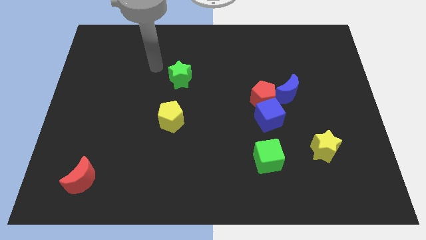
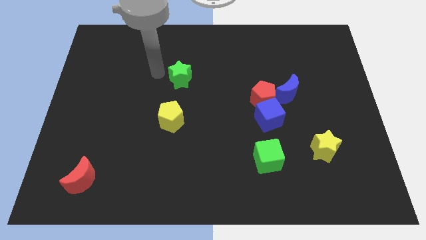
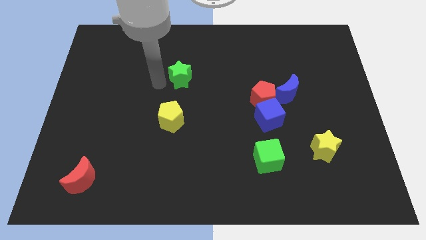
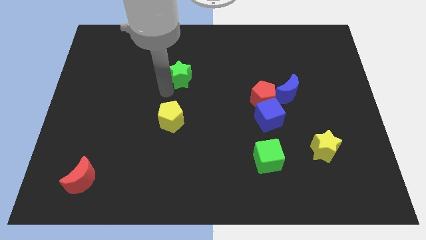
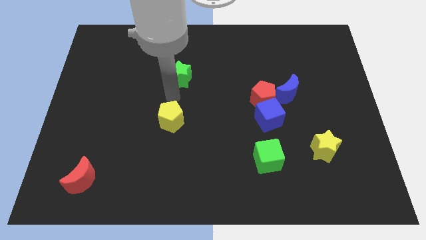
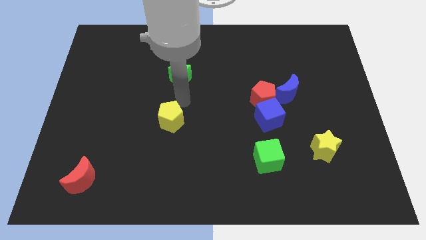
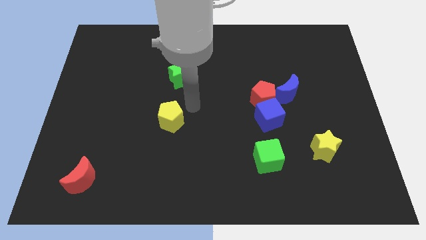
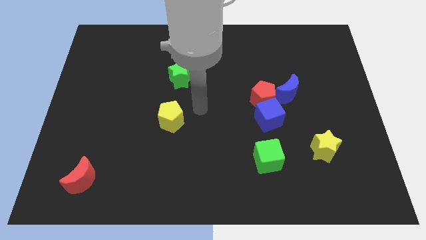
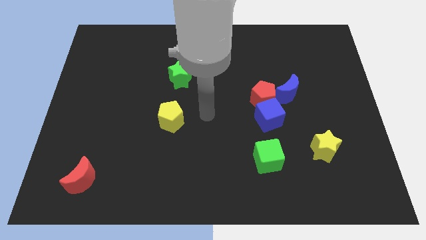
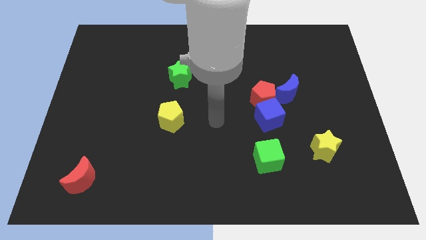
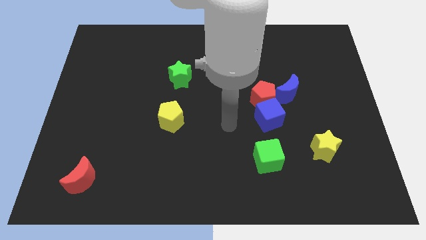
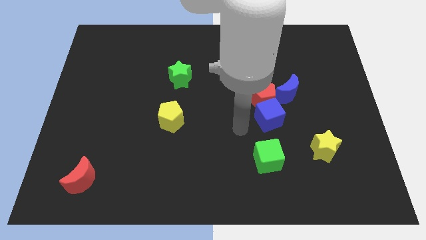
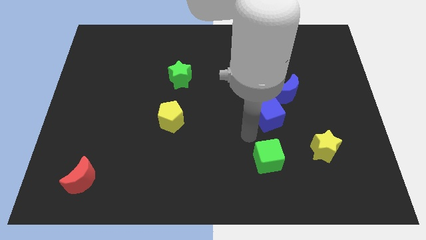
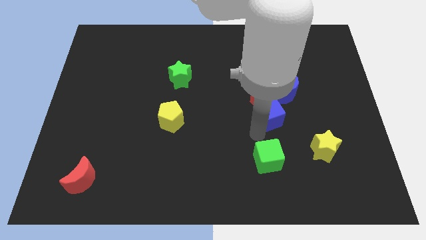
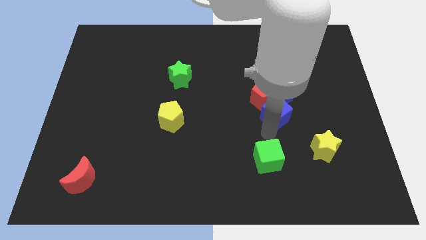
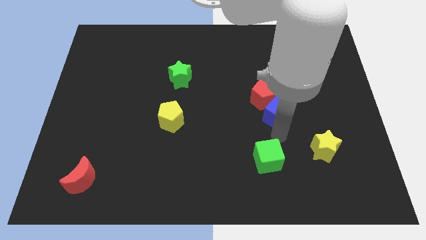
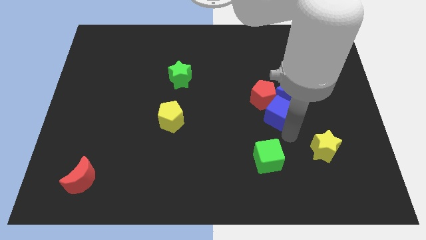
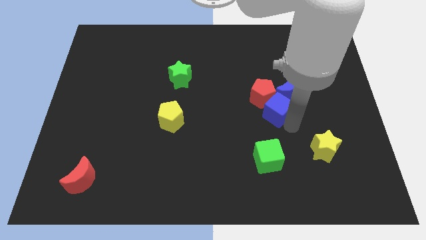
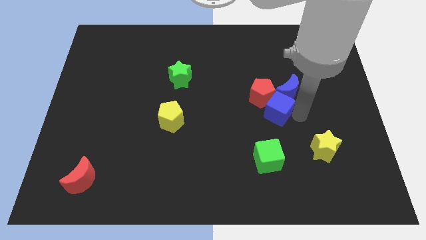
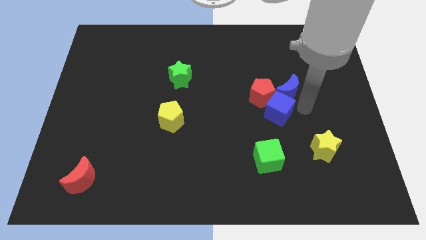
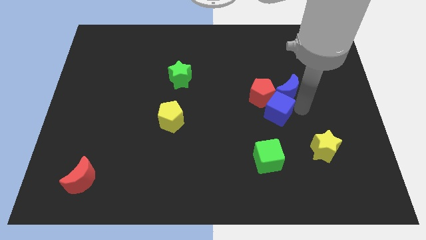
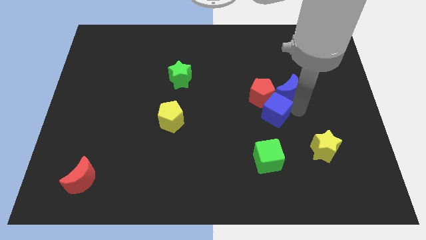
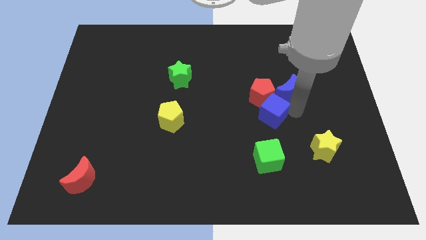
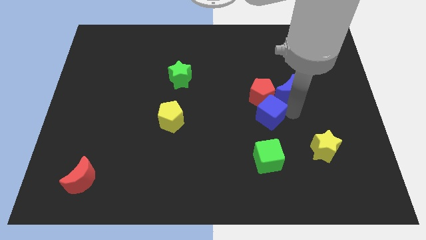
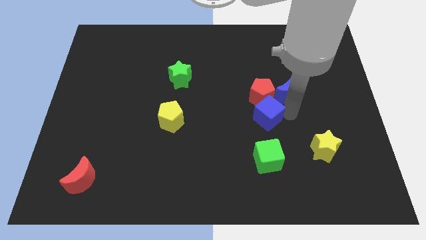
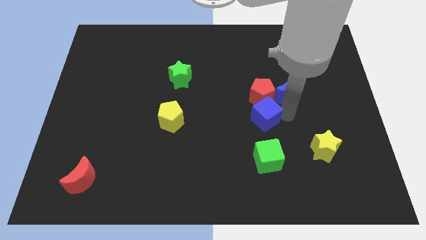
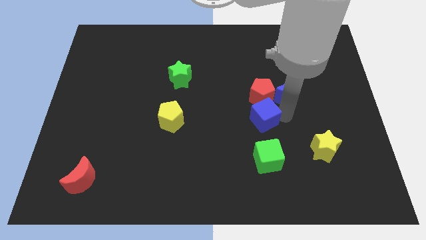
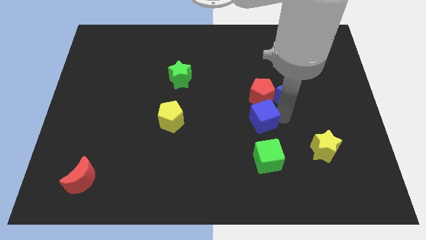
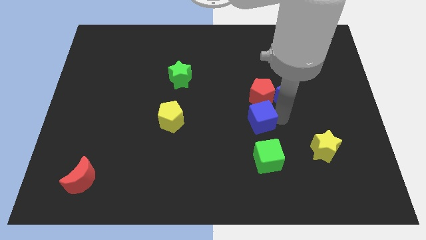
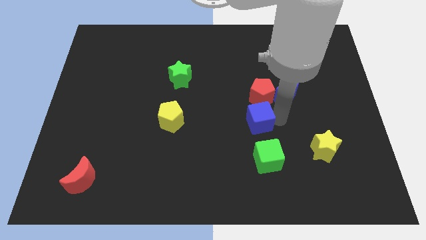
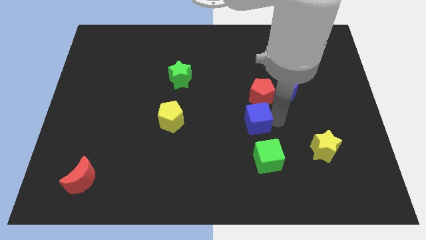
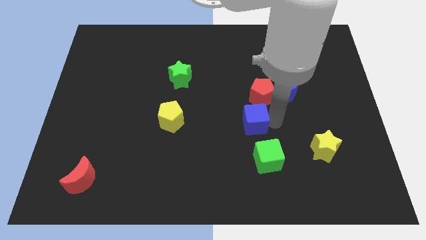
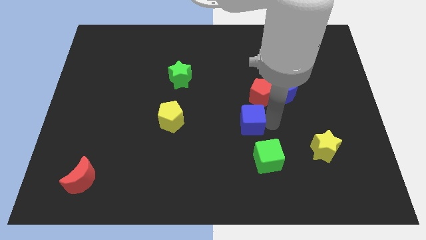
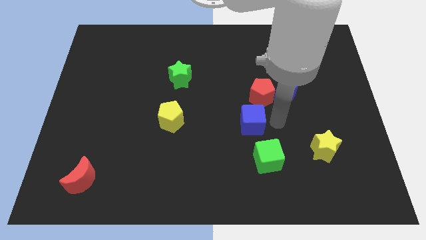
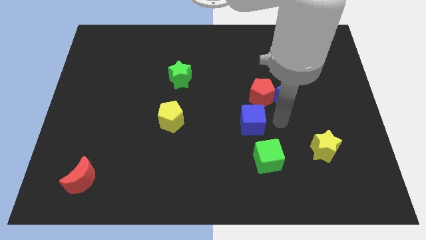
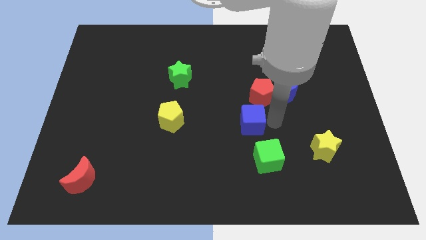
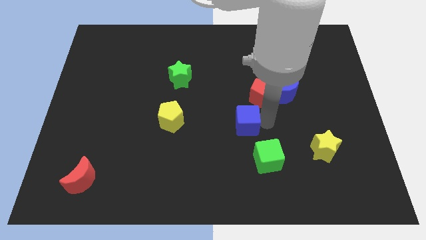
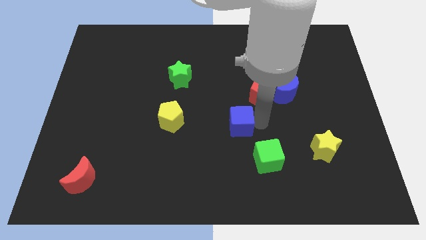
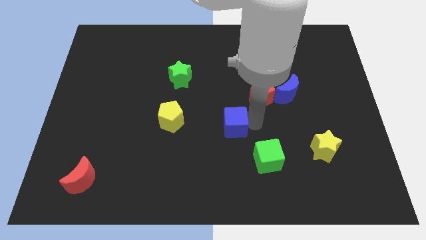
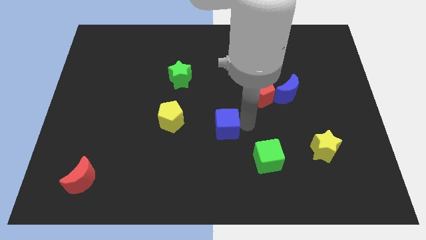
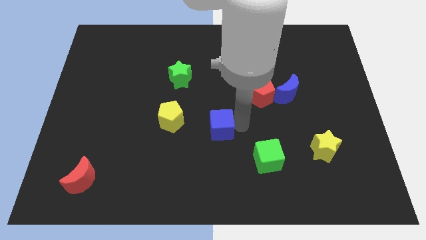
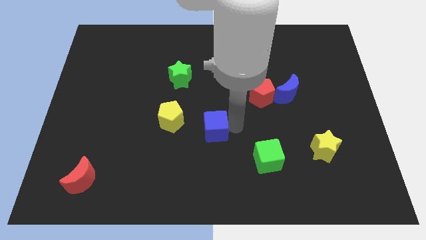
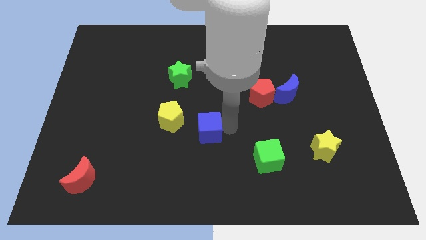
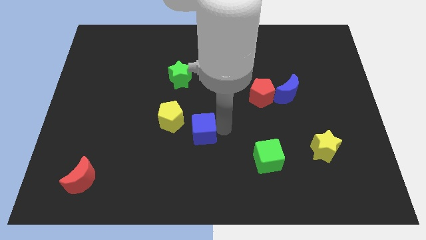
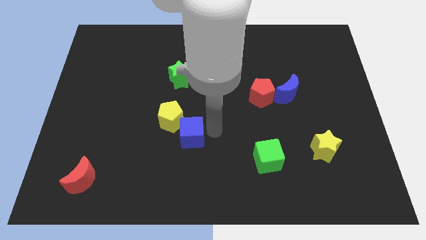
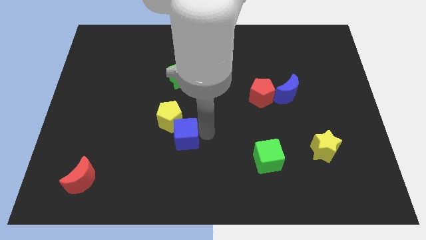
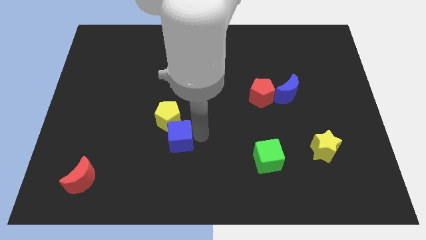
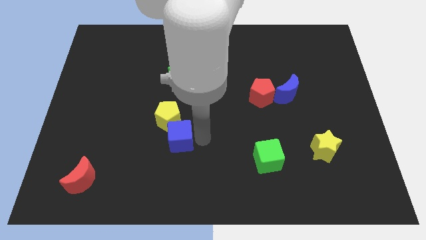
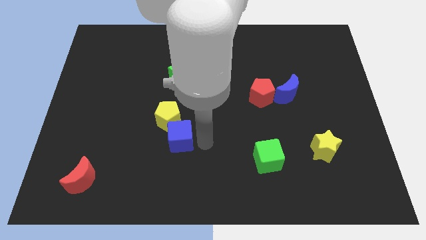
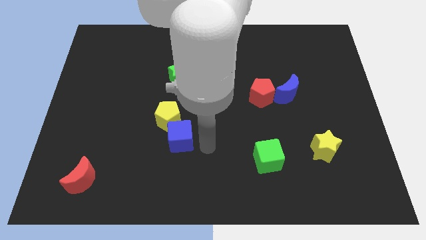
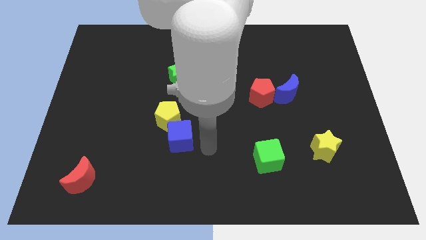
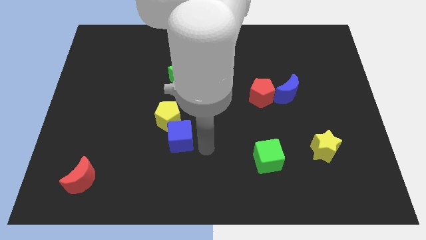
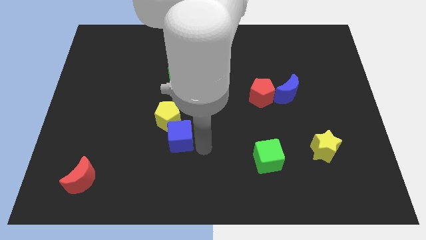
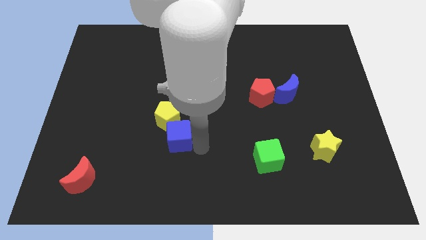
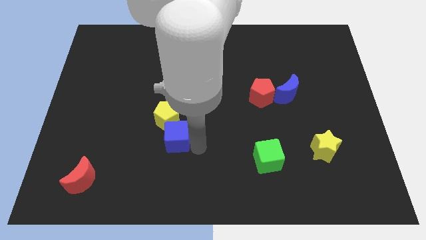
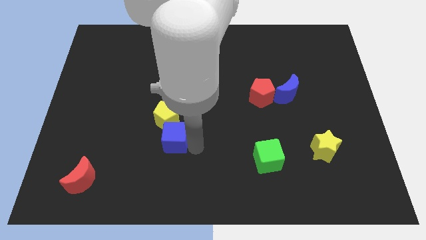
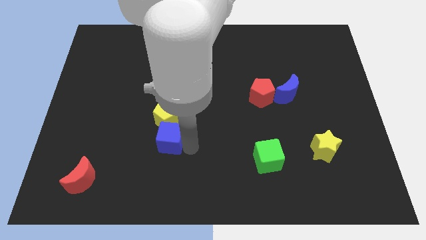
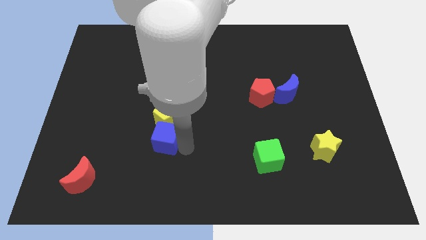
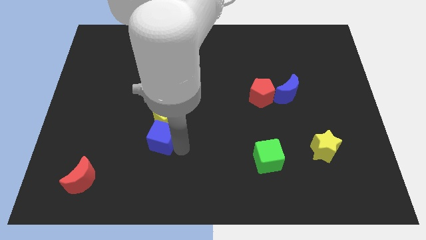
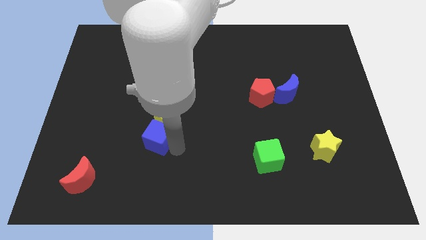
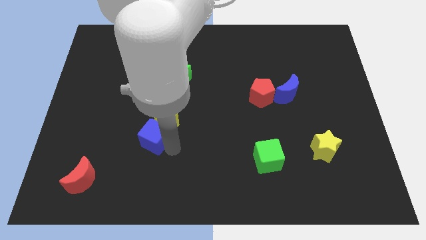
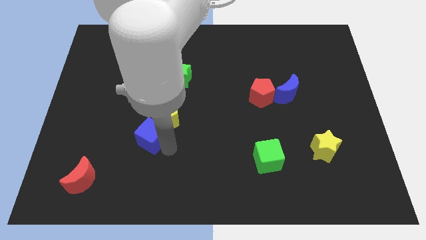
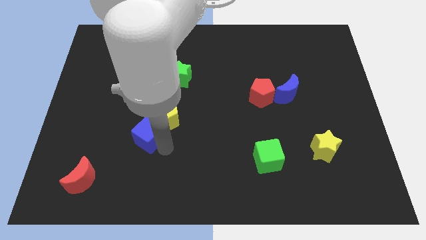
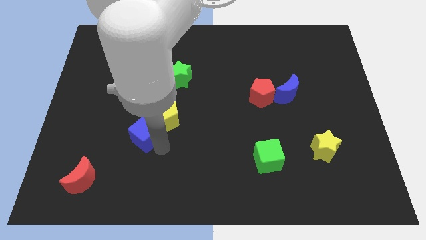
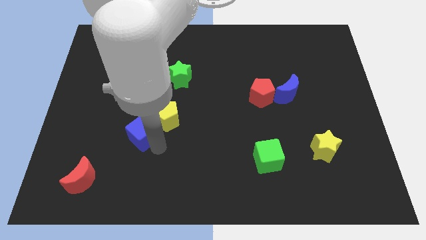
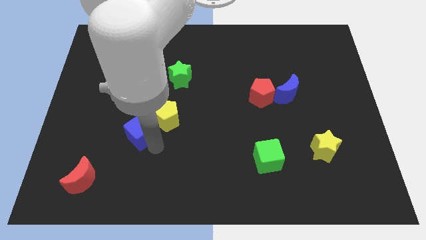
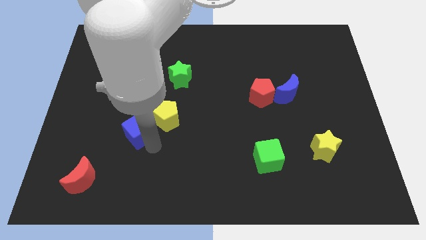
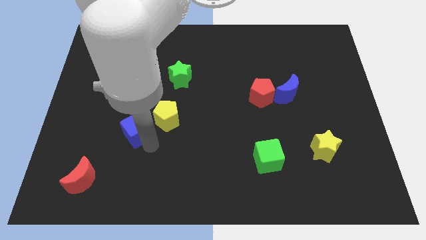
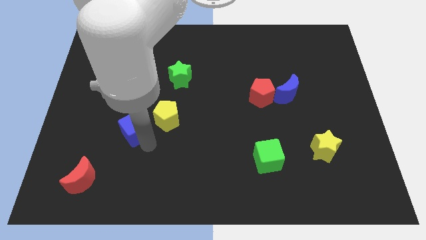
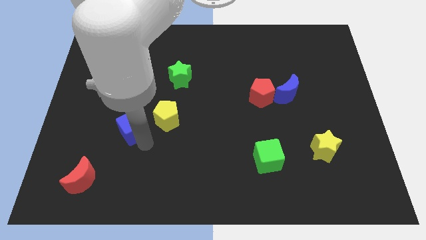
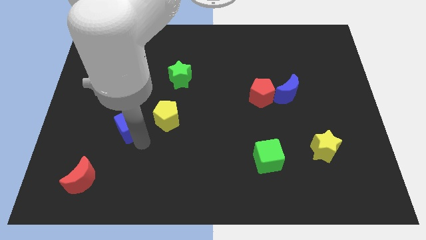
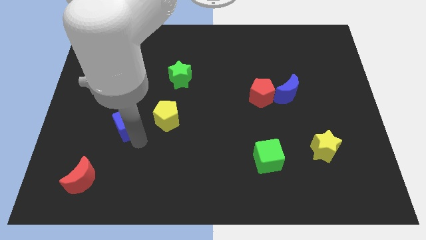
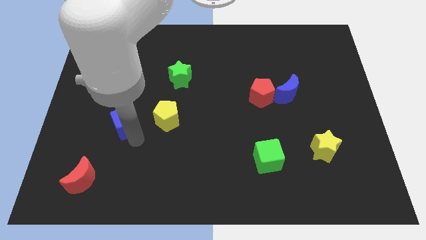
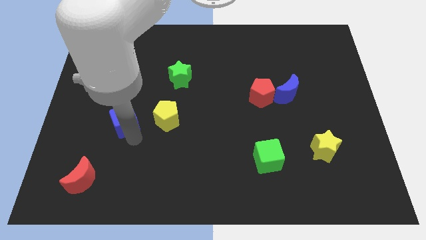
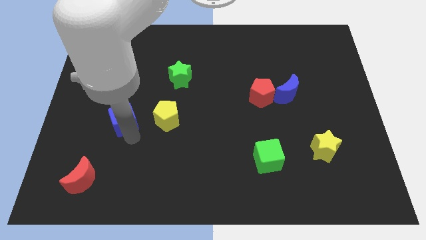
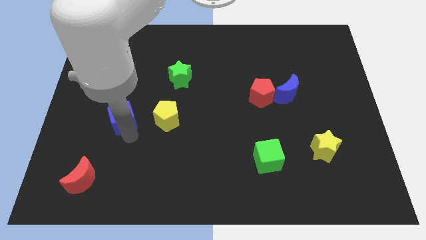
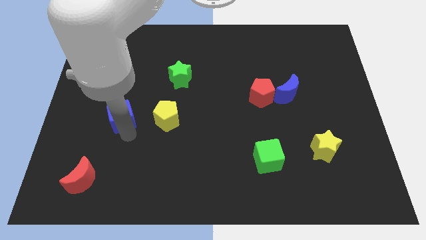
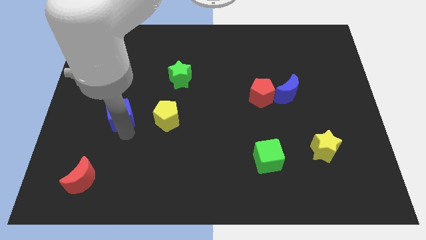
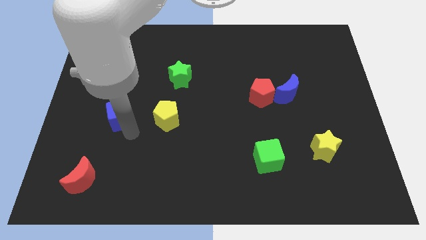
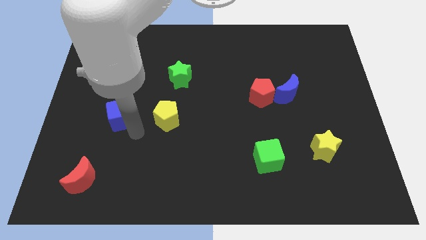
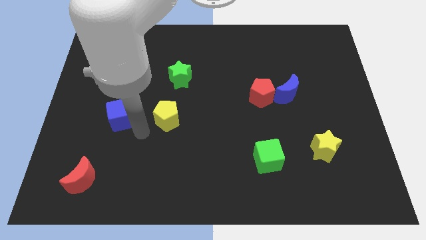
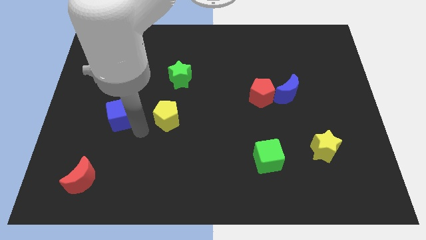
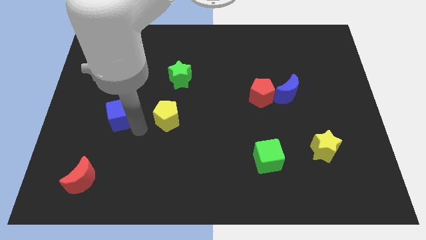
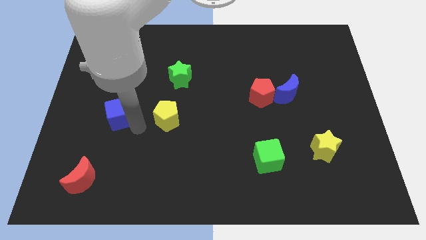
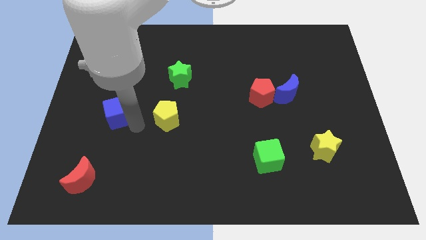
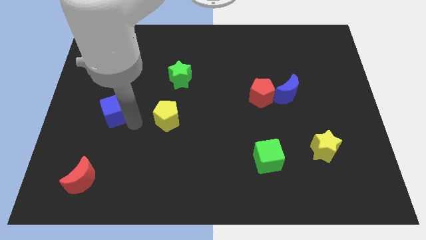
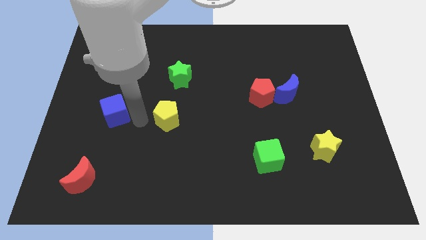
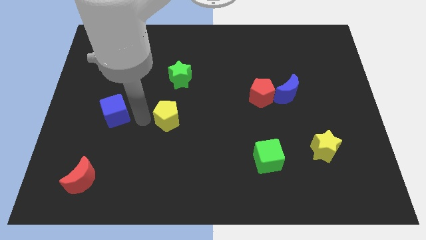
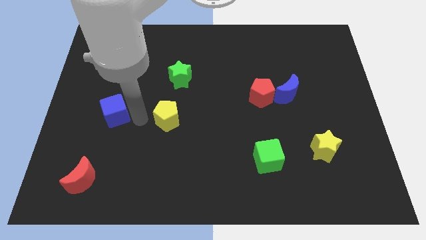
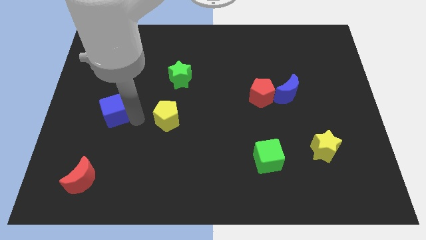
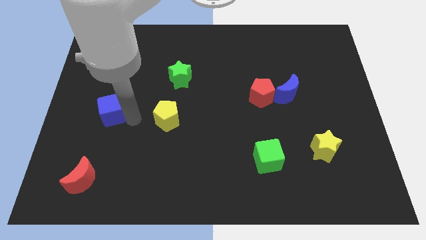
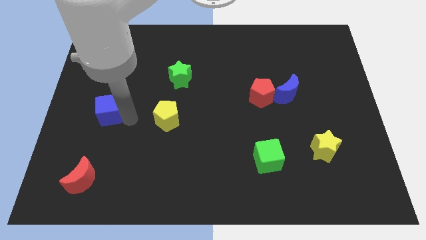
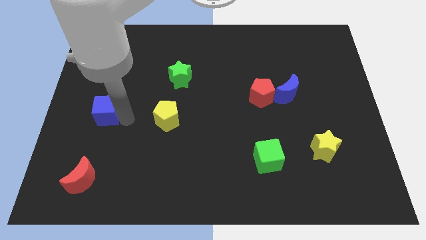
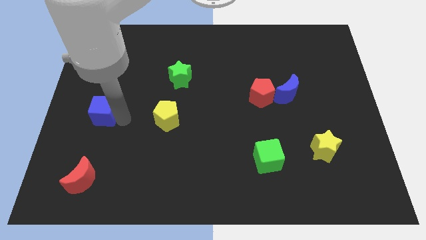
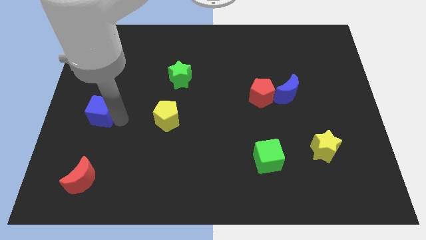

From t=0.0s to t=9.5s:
push the blue cube to the center left
